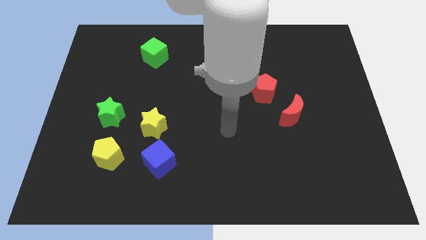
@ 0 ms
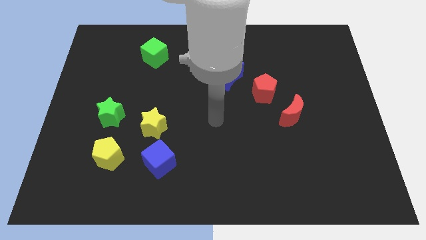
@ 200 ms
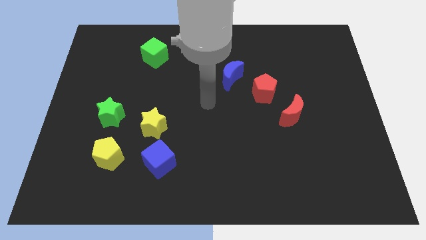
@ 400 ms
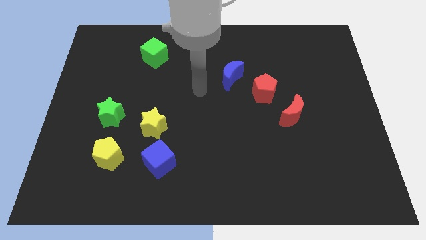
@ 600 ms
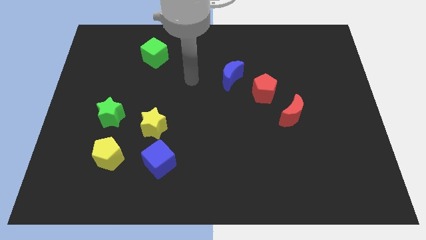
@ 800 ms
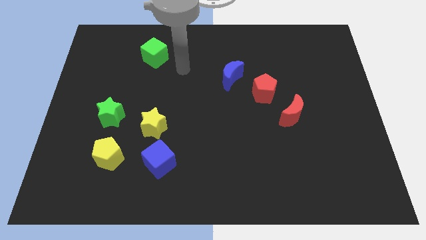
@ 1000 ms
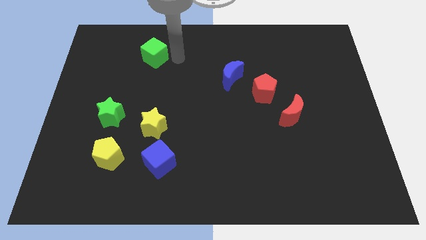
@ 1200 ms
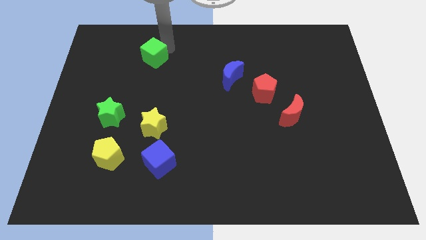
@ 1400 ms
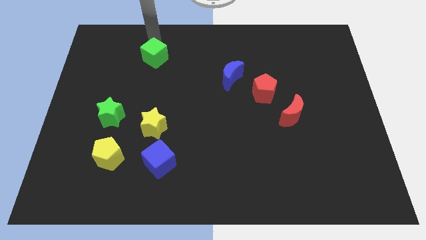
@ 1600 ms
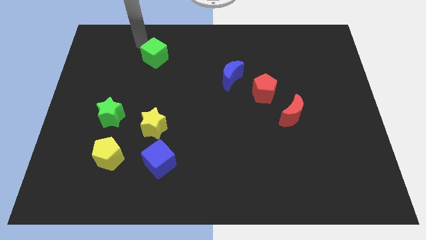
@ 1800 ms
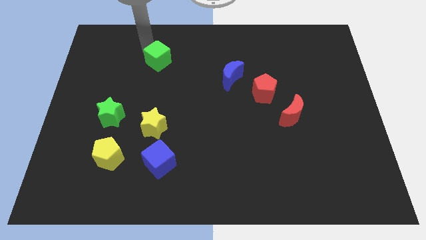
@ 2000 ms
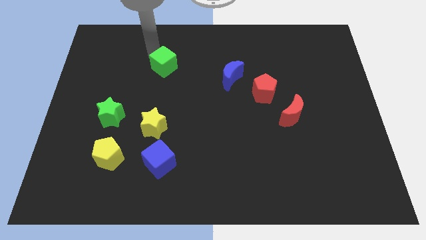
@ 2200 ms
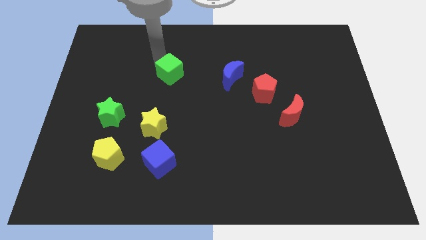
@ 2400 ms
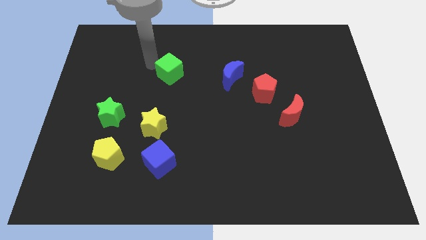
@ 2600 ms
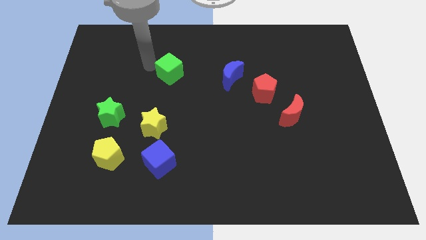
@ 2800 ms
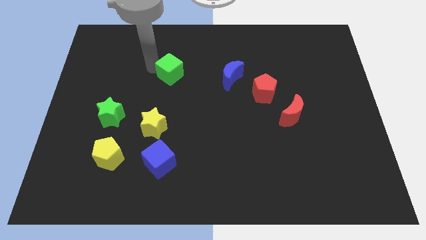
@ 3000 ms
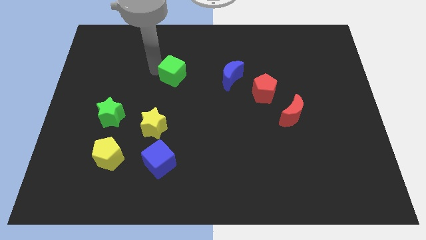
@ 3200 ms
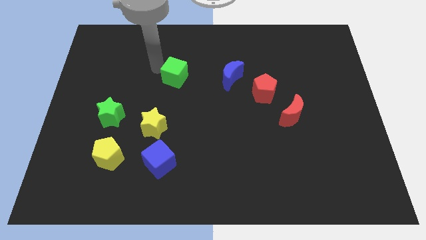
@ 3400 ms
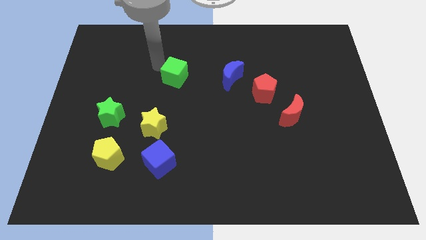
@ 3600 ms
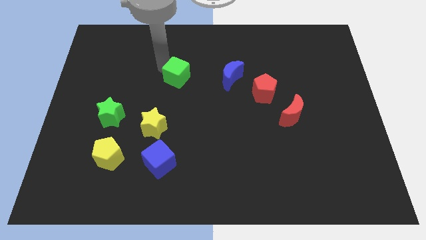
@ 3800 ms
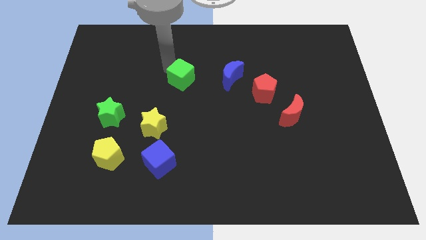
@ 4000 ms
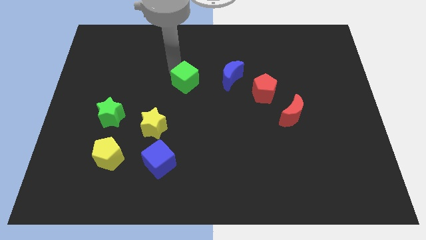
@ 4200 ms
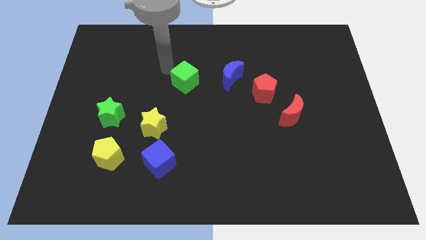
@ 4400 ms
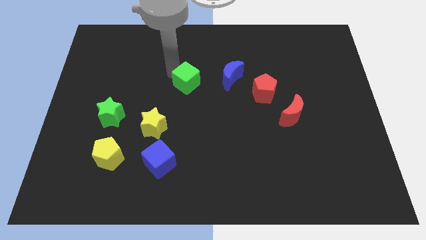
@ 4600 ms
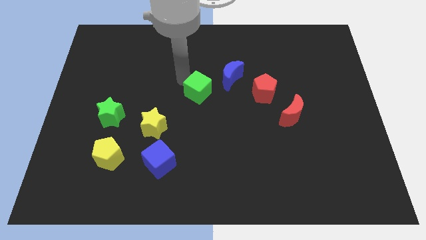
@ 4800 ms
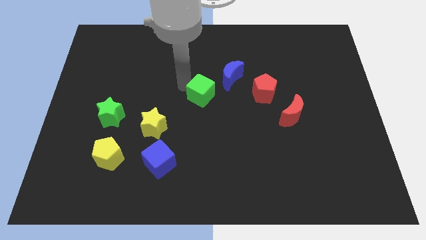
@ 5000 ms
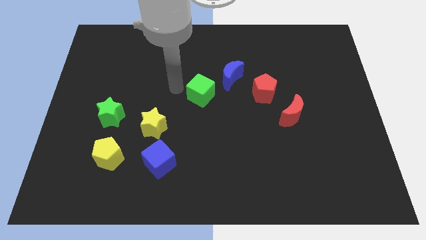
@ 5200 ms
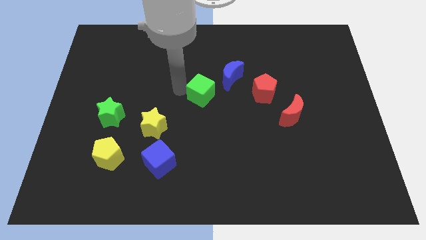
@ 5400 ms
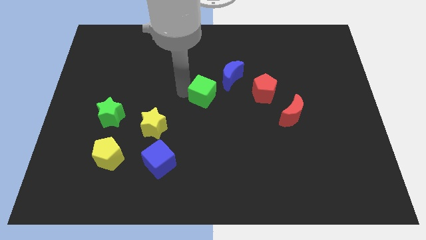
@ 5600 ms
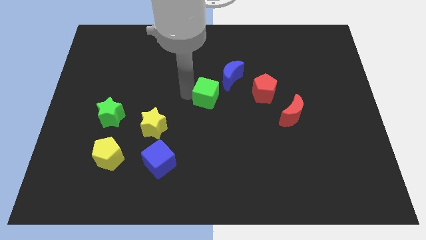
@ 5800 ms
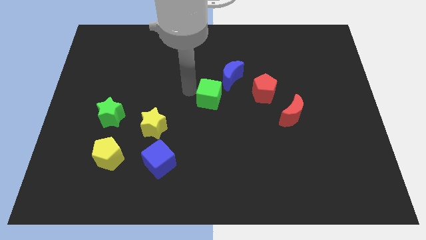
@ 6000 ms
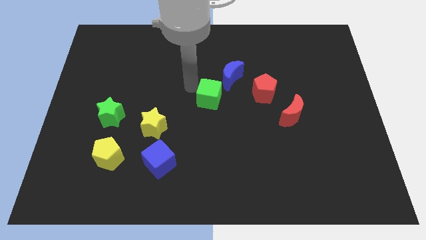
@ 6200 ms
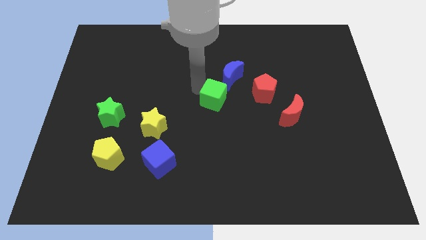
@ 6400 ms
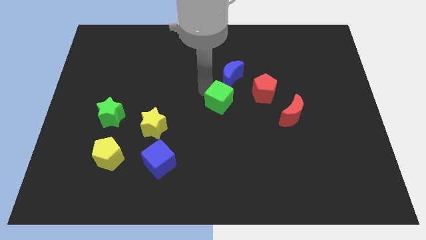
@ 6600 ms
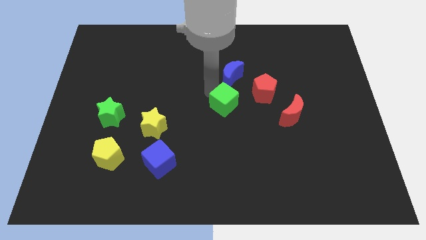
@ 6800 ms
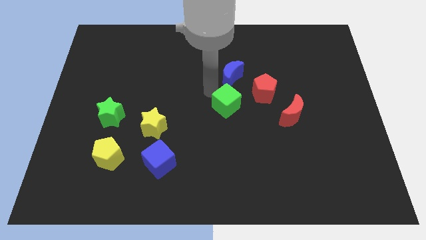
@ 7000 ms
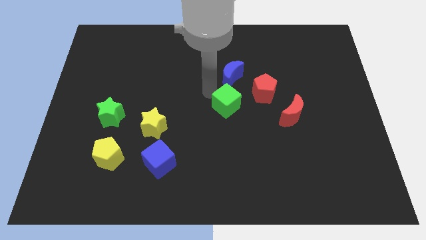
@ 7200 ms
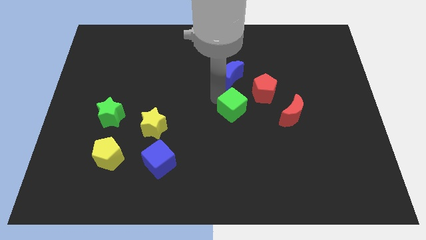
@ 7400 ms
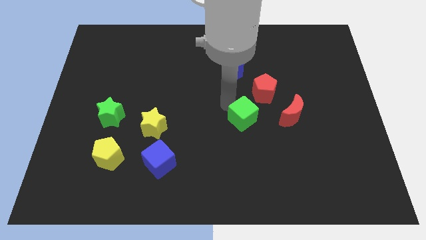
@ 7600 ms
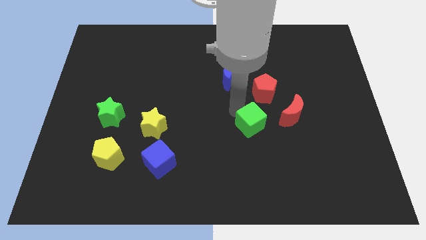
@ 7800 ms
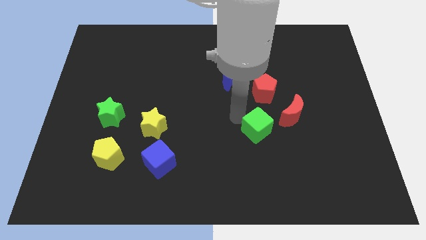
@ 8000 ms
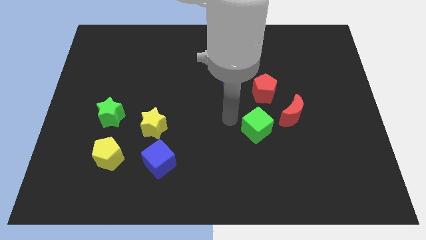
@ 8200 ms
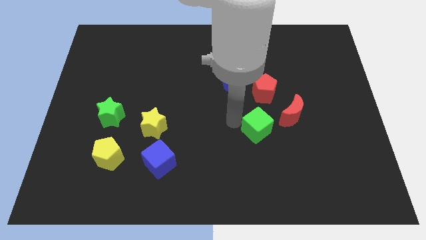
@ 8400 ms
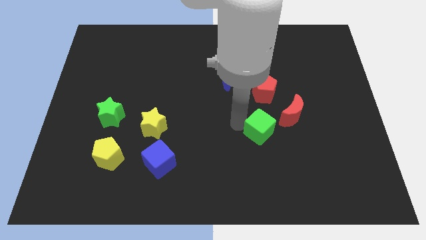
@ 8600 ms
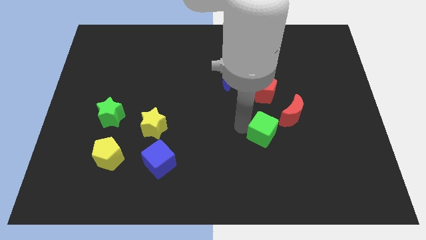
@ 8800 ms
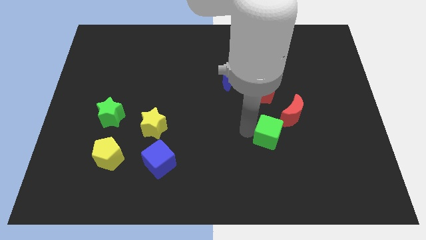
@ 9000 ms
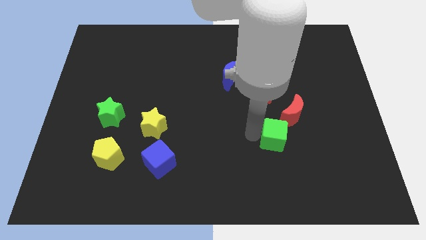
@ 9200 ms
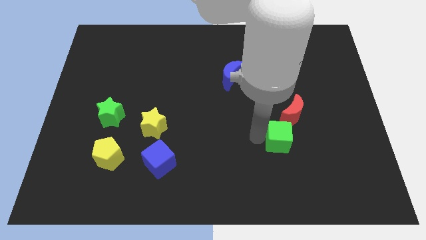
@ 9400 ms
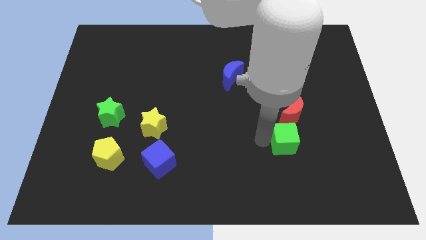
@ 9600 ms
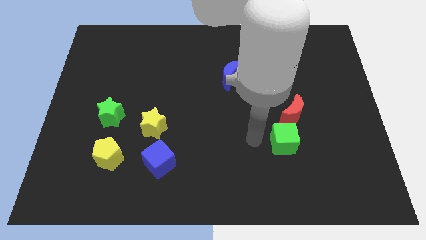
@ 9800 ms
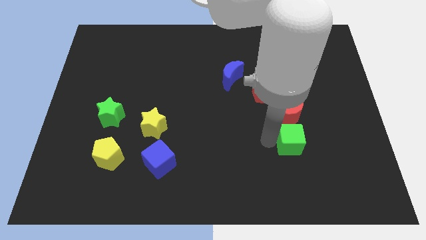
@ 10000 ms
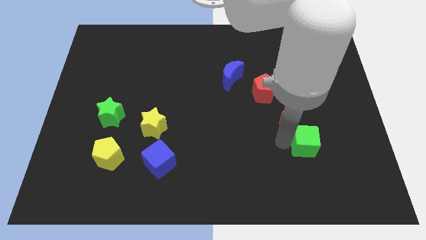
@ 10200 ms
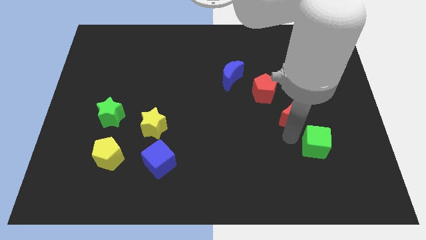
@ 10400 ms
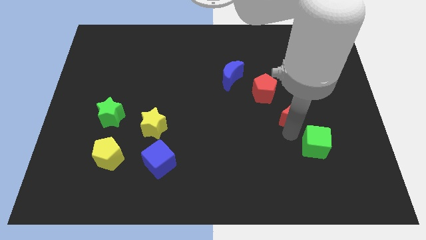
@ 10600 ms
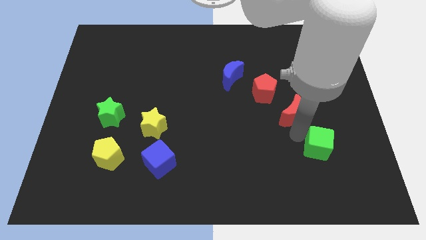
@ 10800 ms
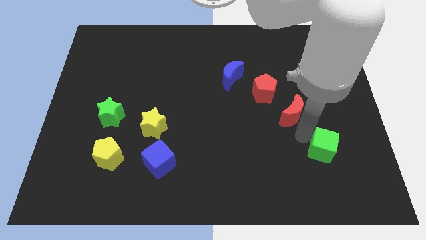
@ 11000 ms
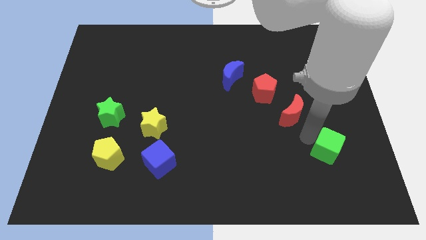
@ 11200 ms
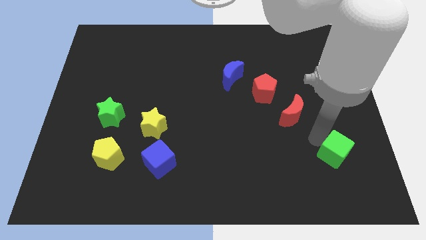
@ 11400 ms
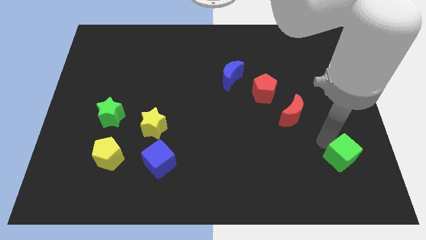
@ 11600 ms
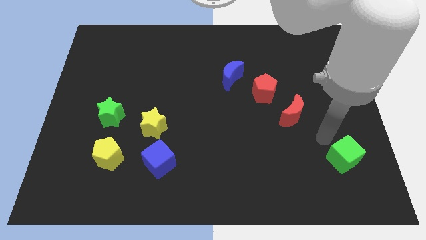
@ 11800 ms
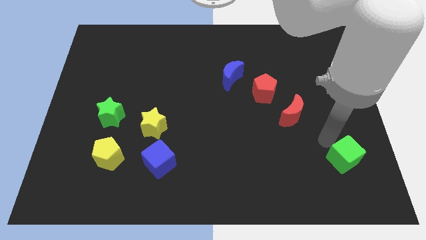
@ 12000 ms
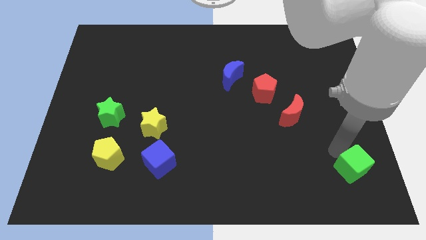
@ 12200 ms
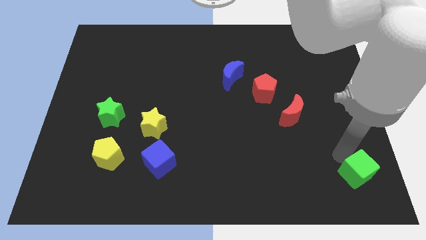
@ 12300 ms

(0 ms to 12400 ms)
slide the green cube to the bottom right
